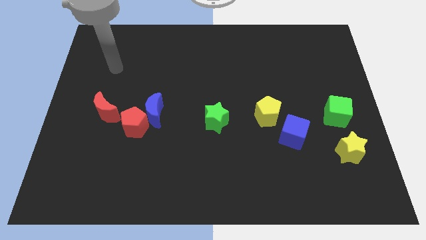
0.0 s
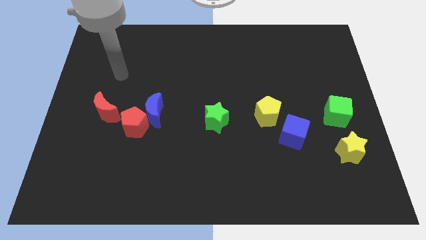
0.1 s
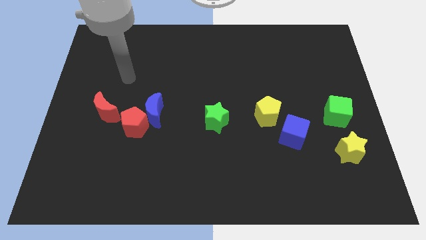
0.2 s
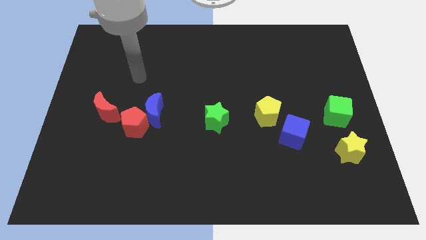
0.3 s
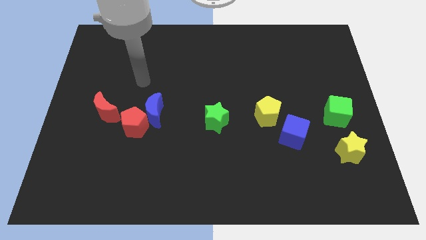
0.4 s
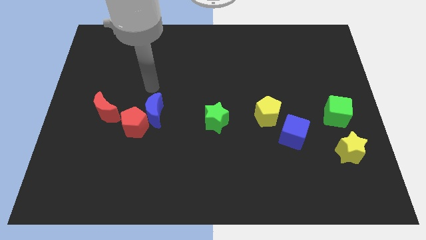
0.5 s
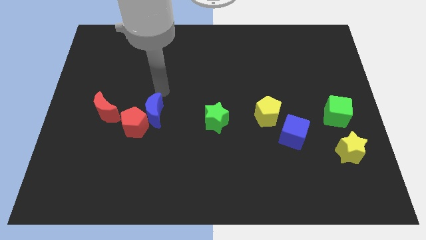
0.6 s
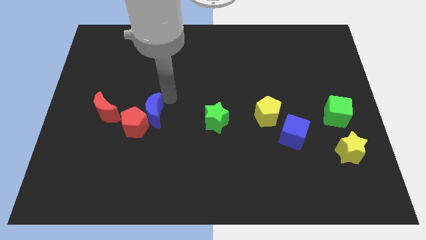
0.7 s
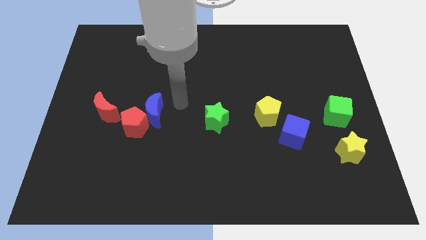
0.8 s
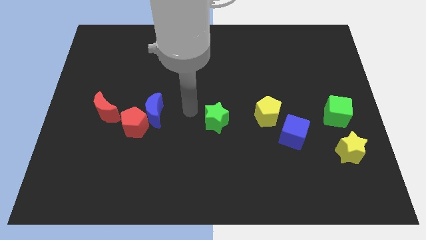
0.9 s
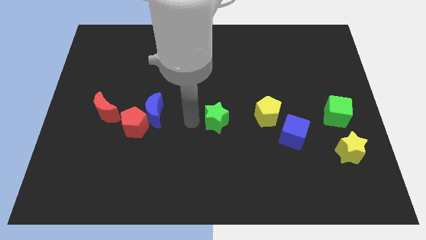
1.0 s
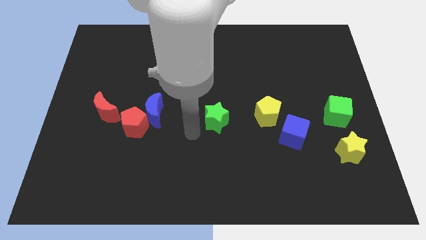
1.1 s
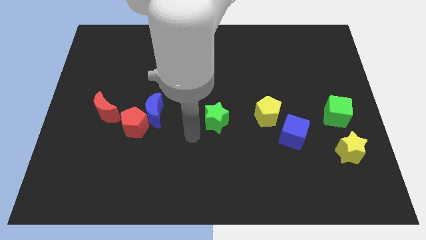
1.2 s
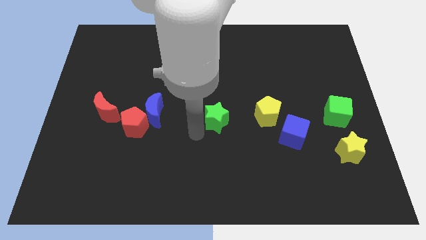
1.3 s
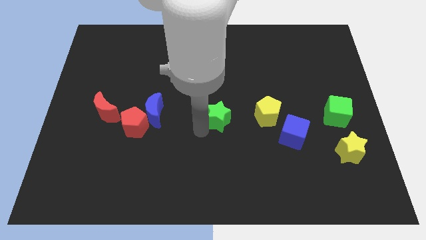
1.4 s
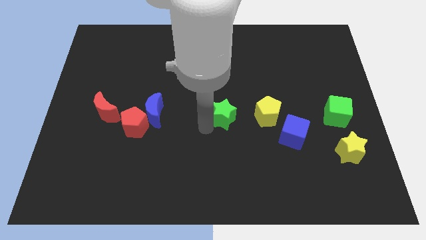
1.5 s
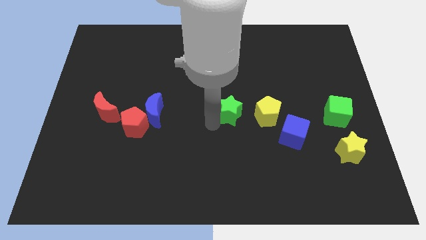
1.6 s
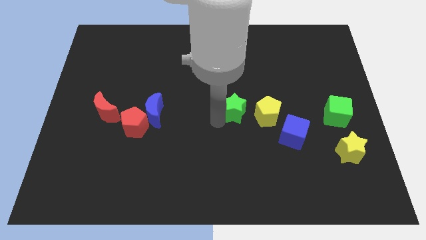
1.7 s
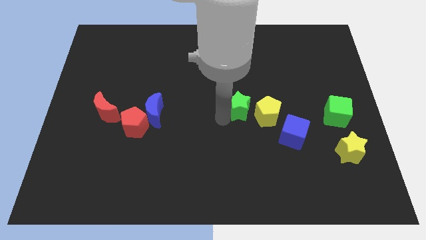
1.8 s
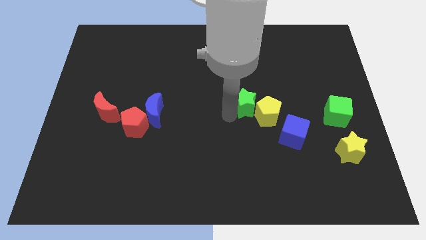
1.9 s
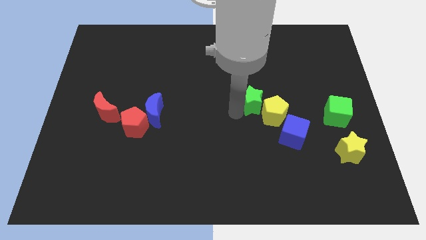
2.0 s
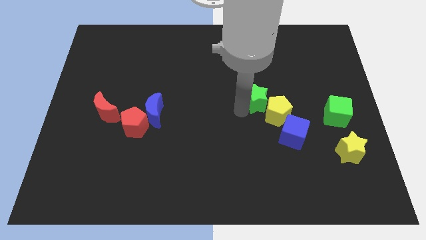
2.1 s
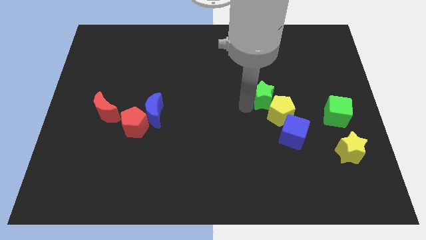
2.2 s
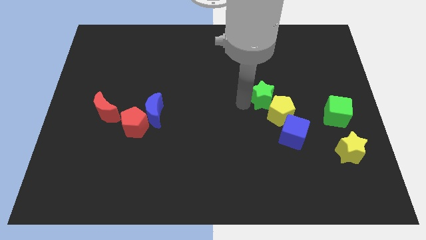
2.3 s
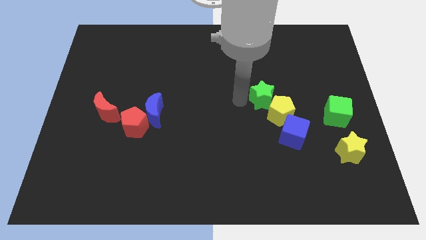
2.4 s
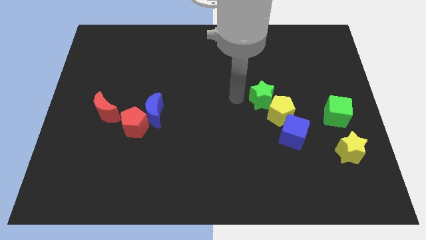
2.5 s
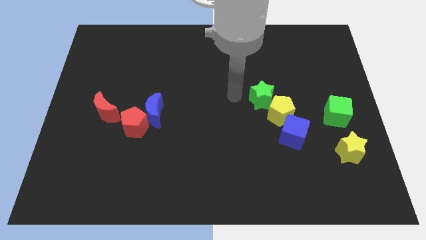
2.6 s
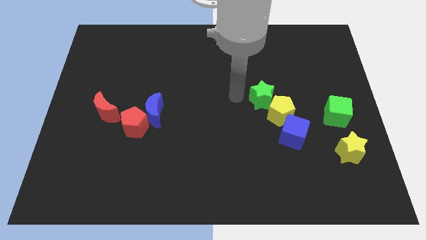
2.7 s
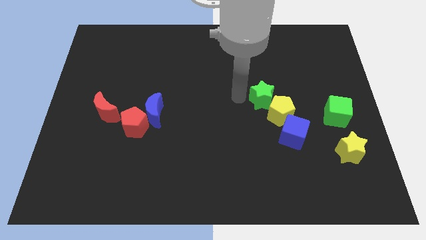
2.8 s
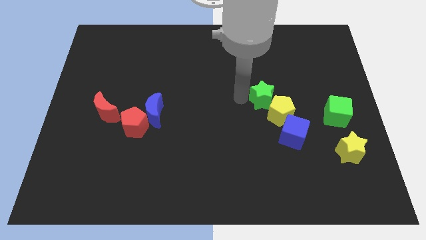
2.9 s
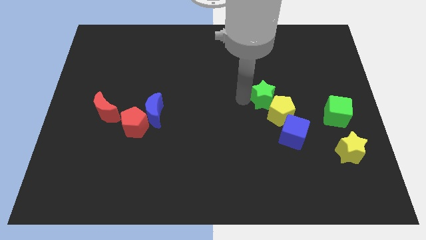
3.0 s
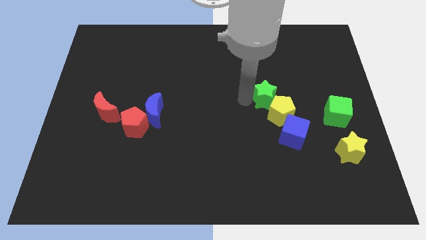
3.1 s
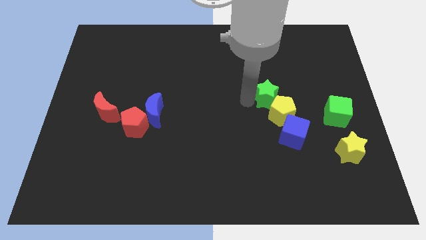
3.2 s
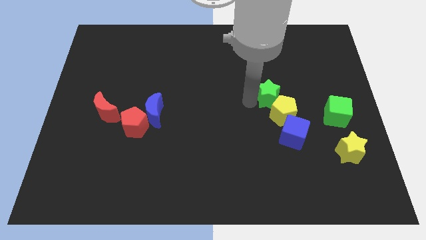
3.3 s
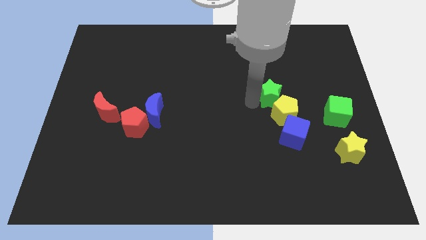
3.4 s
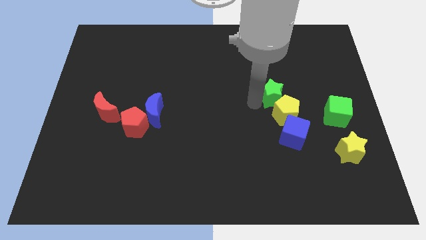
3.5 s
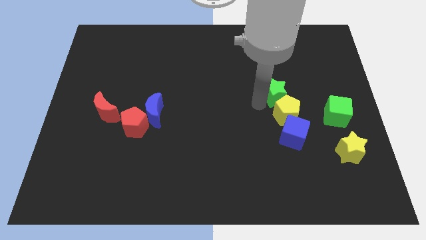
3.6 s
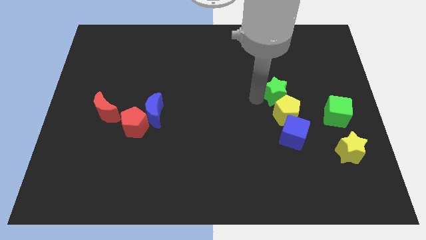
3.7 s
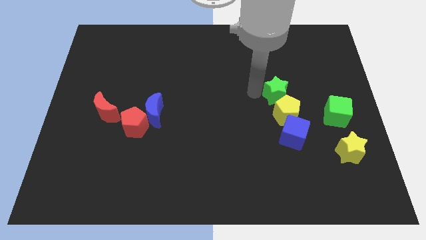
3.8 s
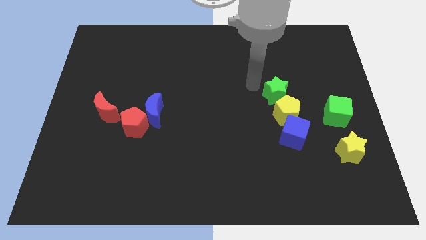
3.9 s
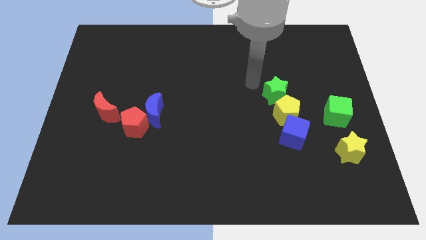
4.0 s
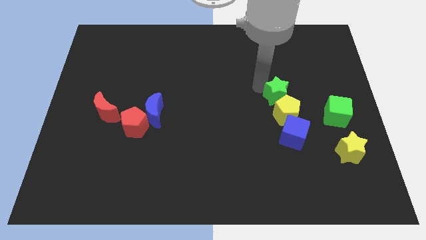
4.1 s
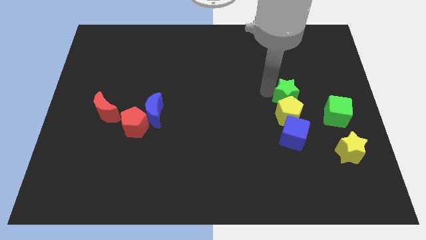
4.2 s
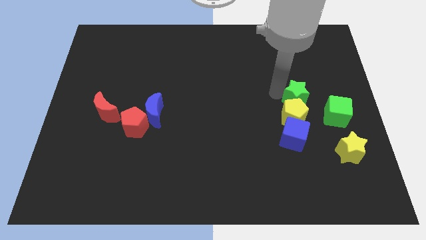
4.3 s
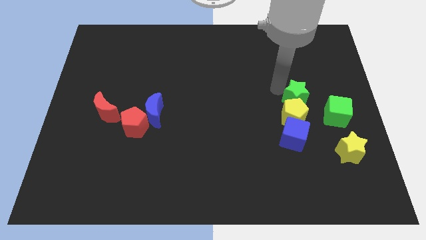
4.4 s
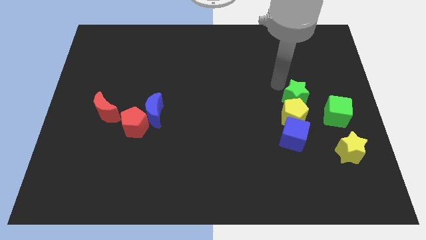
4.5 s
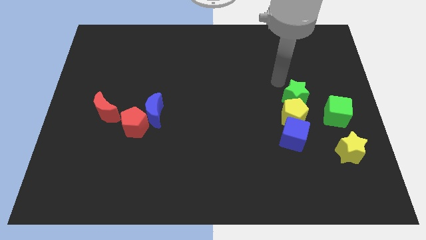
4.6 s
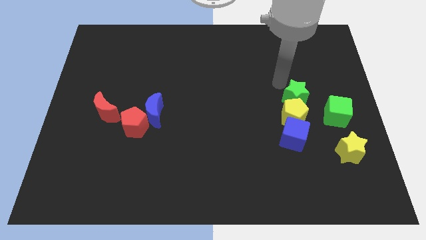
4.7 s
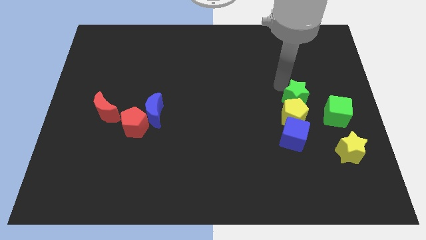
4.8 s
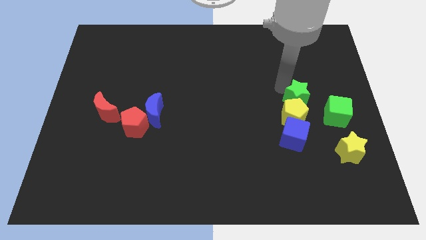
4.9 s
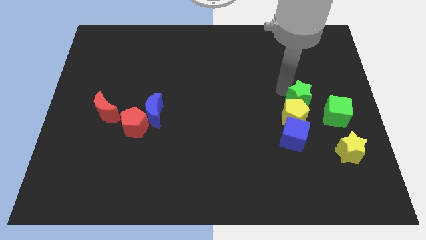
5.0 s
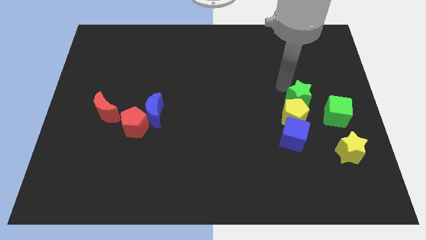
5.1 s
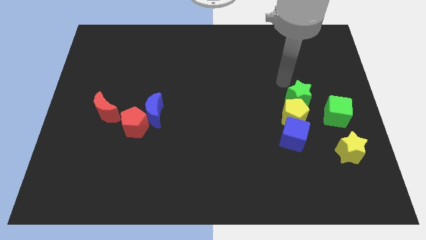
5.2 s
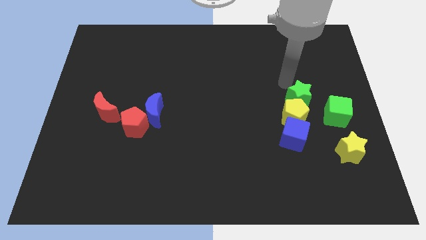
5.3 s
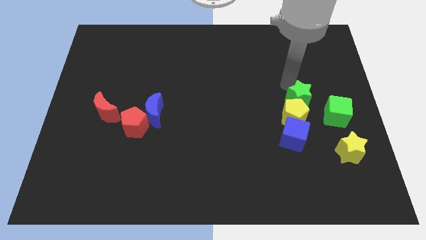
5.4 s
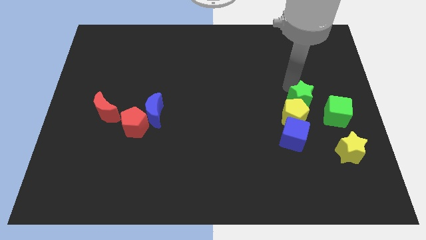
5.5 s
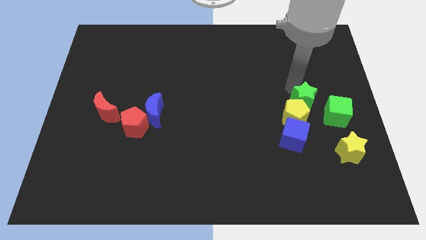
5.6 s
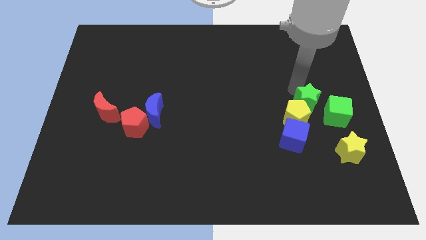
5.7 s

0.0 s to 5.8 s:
move the green star diagonally up and to the right of the blue cube

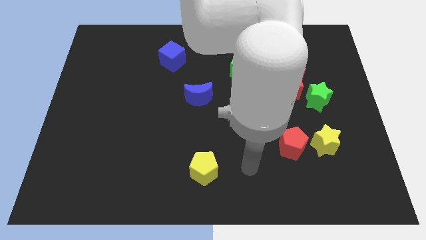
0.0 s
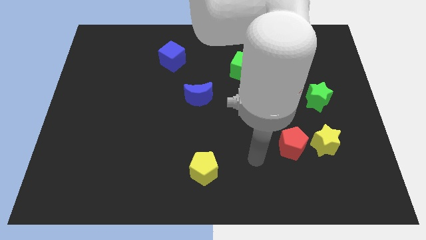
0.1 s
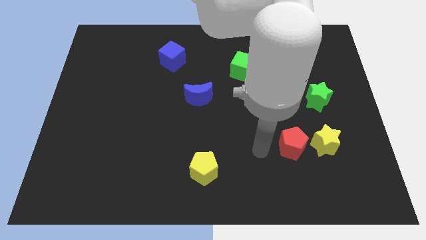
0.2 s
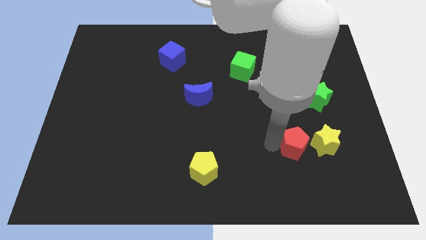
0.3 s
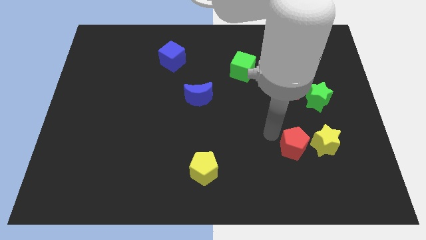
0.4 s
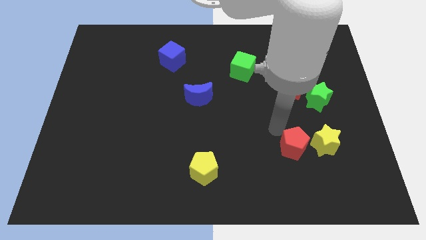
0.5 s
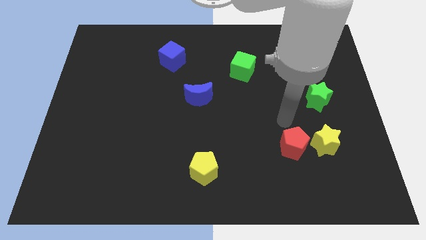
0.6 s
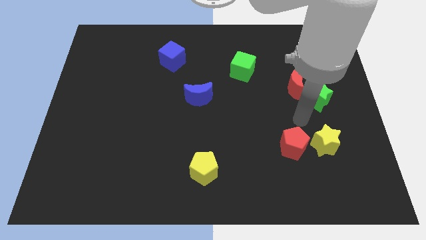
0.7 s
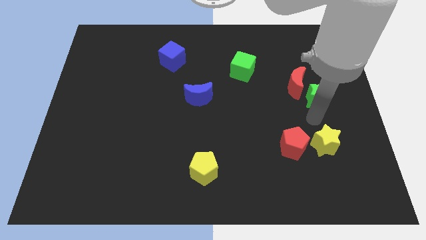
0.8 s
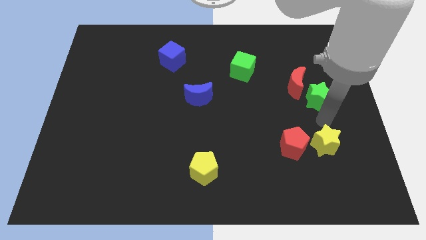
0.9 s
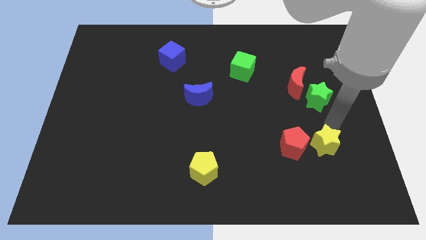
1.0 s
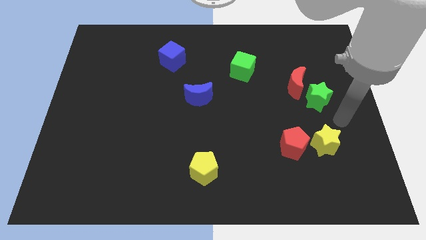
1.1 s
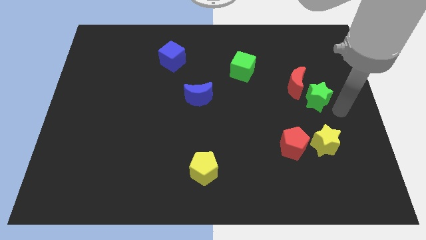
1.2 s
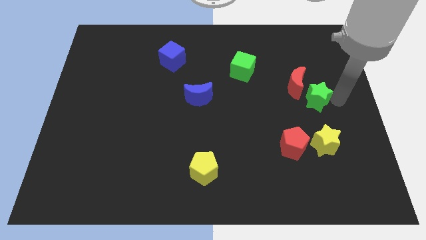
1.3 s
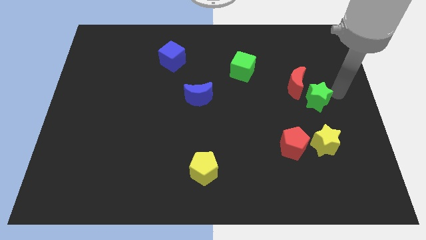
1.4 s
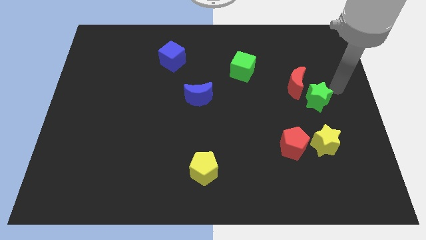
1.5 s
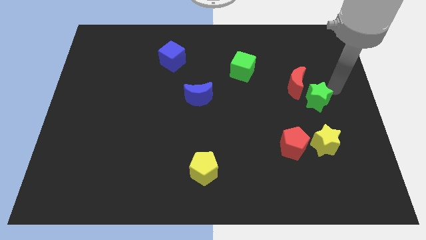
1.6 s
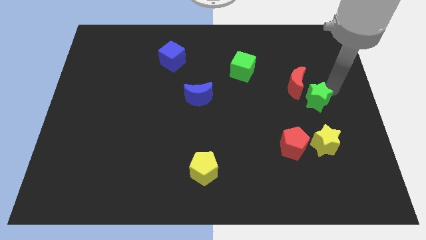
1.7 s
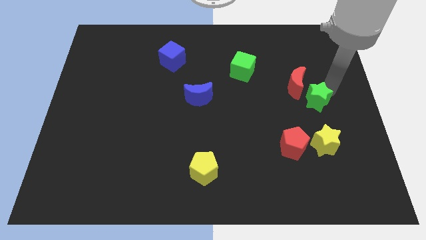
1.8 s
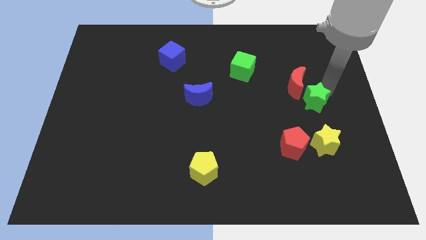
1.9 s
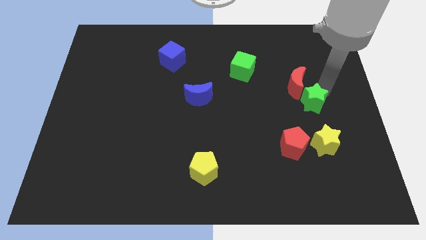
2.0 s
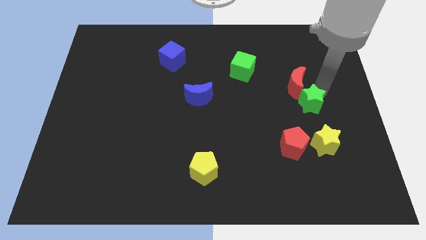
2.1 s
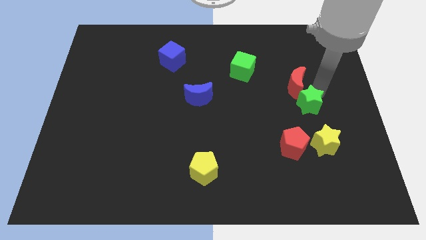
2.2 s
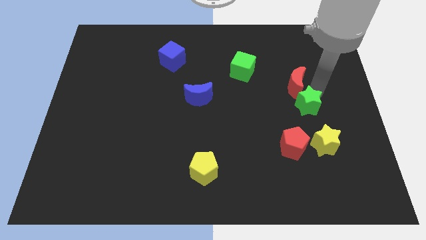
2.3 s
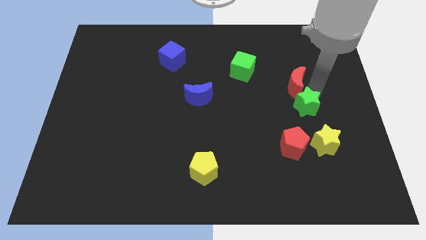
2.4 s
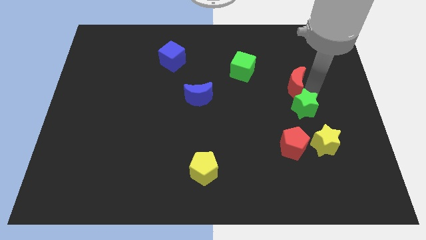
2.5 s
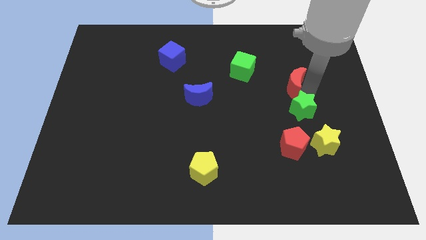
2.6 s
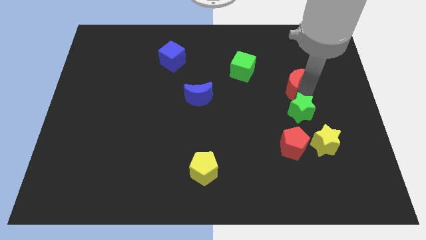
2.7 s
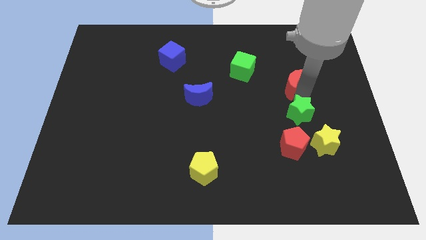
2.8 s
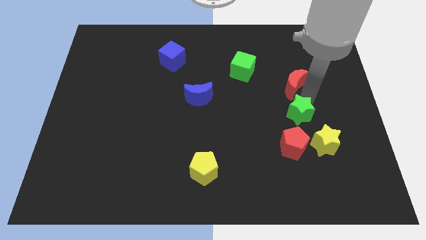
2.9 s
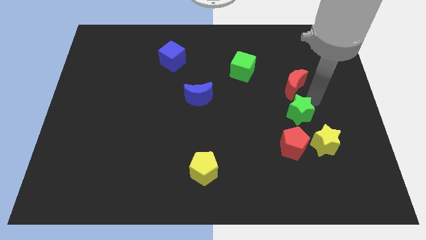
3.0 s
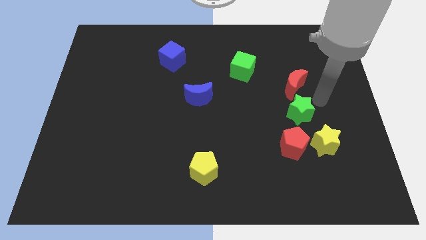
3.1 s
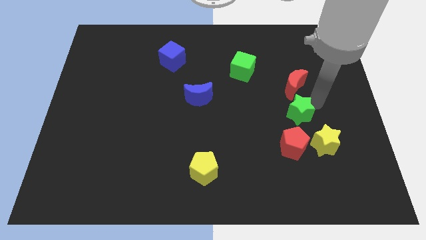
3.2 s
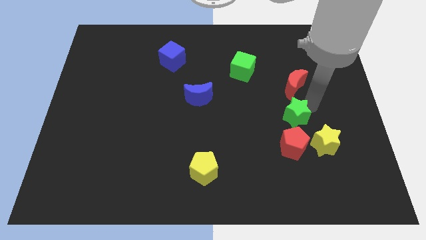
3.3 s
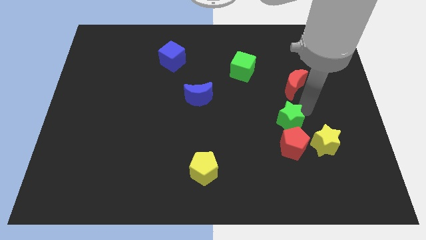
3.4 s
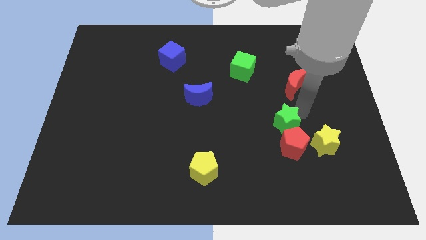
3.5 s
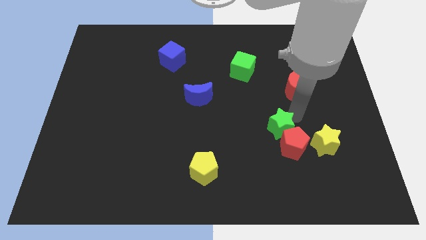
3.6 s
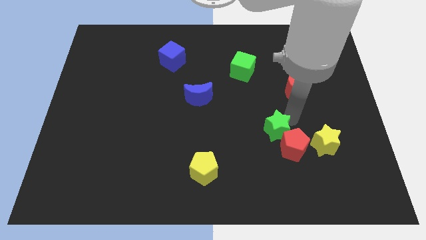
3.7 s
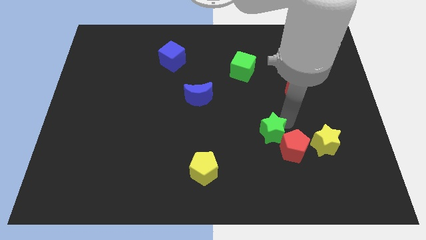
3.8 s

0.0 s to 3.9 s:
slide the green star to the left side of the red pentagon
